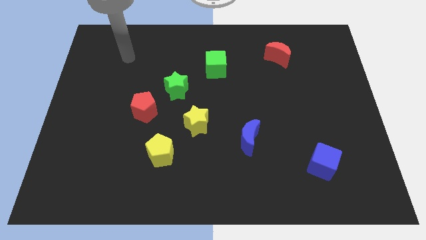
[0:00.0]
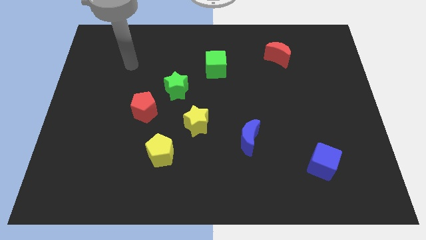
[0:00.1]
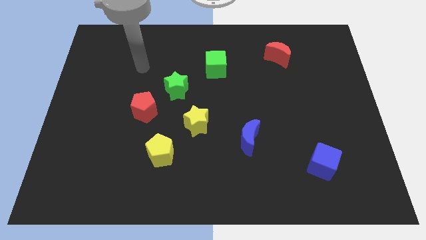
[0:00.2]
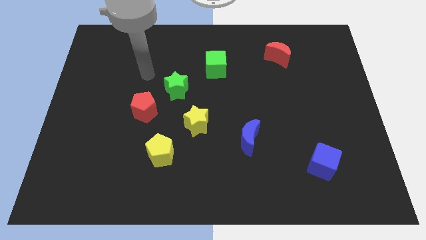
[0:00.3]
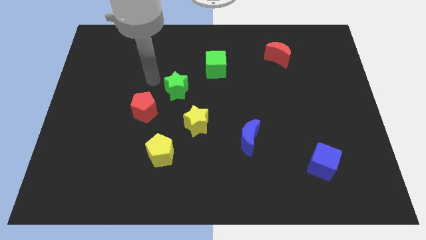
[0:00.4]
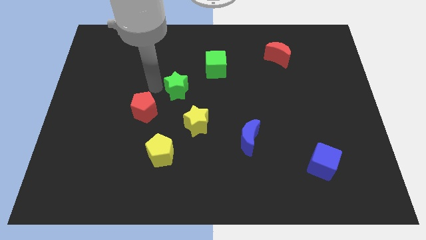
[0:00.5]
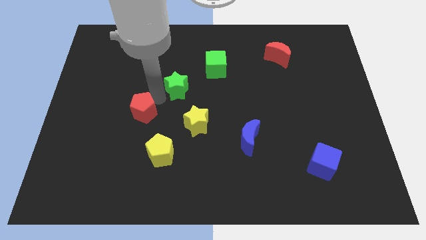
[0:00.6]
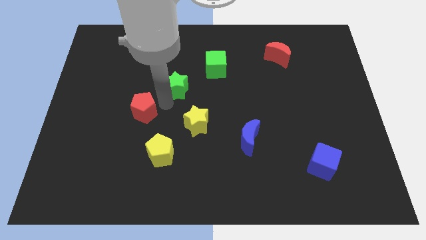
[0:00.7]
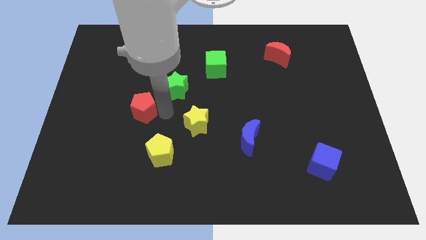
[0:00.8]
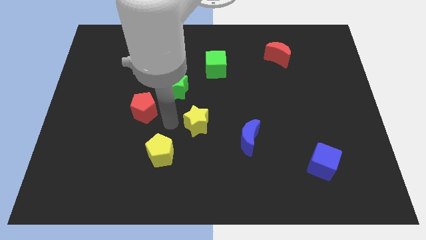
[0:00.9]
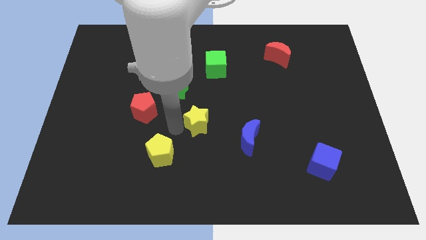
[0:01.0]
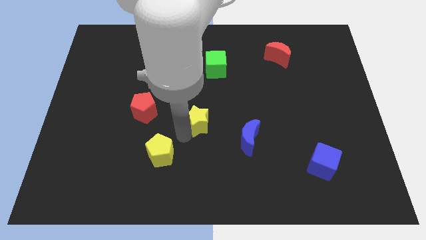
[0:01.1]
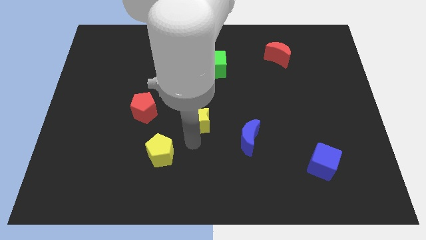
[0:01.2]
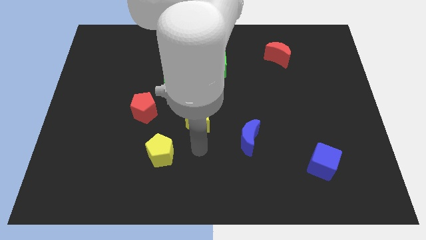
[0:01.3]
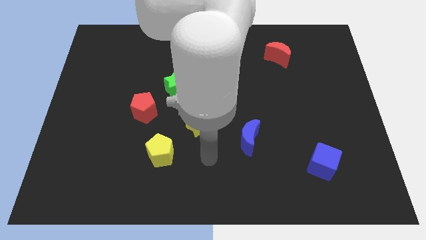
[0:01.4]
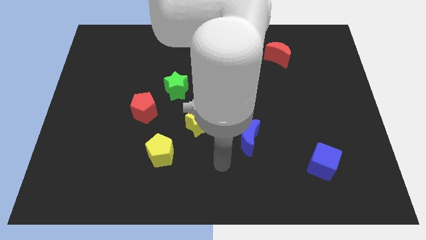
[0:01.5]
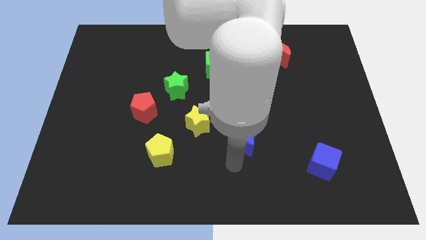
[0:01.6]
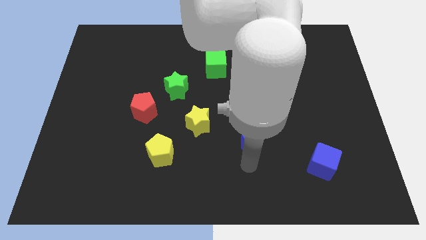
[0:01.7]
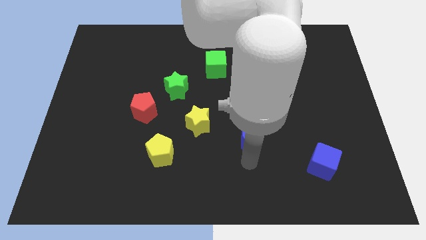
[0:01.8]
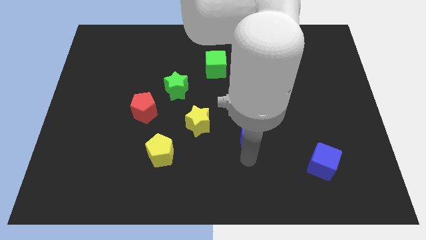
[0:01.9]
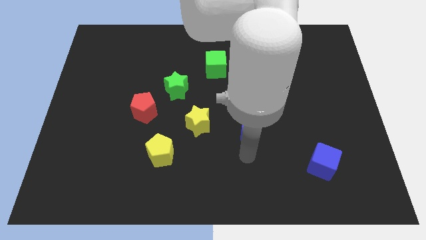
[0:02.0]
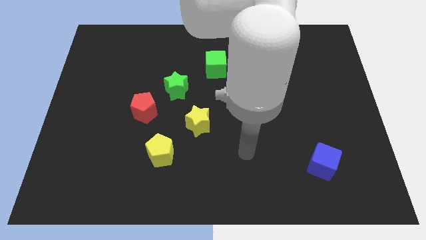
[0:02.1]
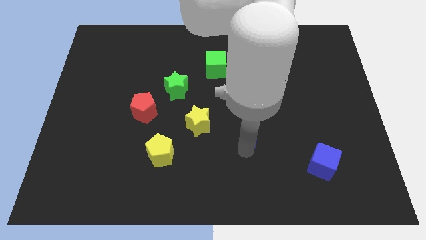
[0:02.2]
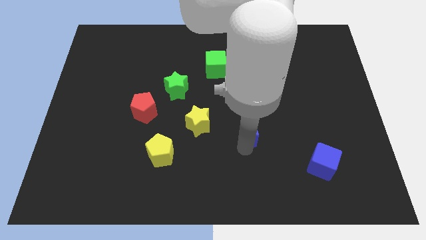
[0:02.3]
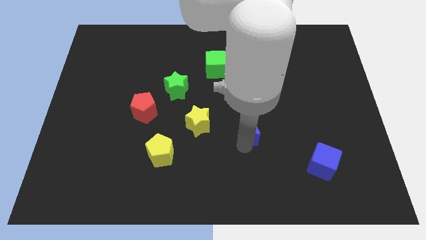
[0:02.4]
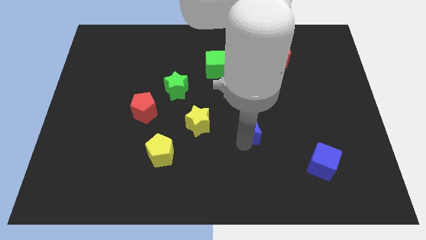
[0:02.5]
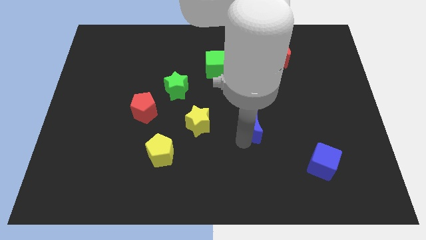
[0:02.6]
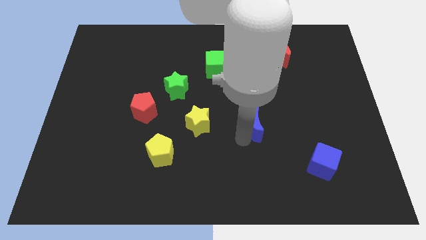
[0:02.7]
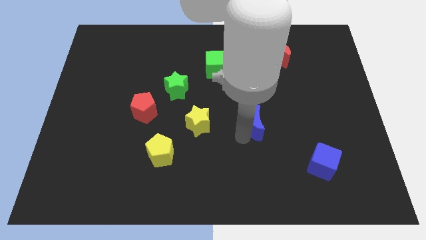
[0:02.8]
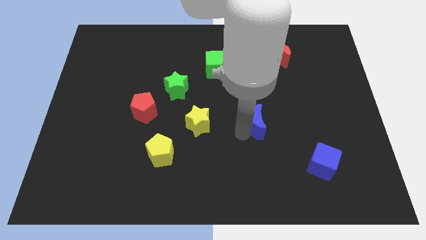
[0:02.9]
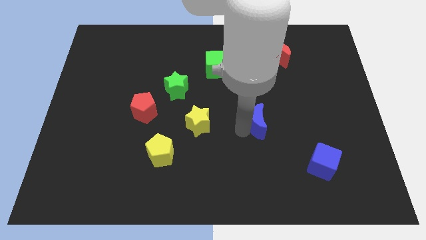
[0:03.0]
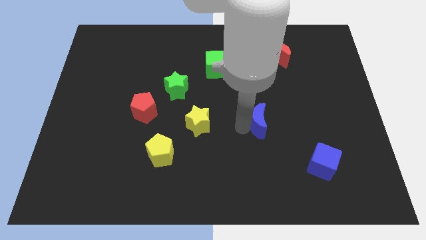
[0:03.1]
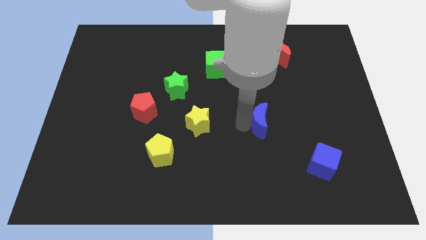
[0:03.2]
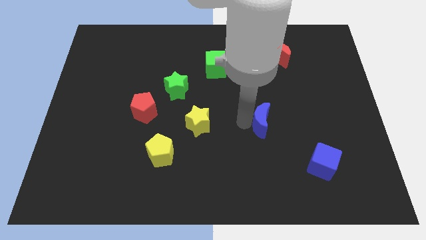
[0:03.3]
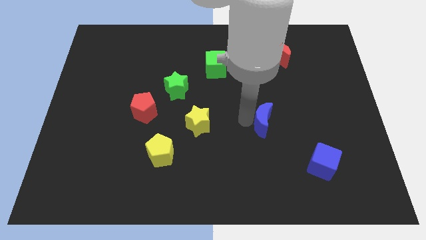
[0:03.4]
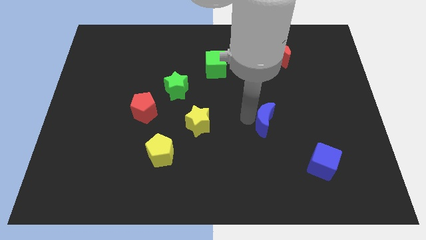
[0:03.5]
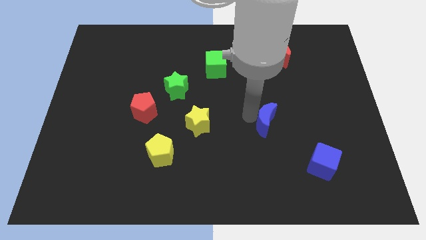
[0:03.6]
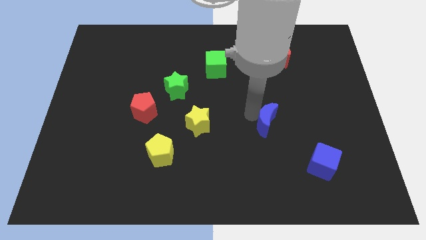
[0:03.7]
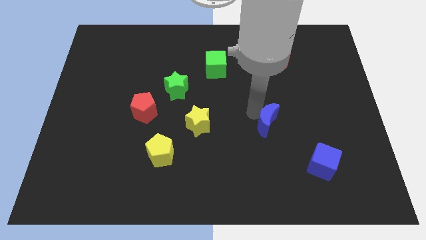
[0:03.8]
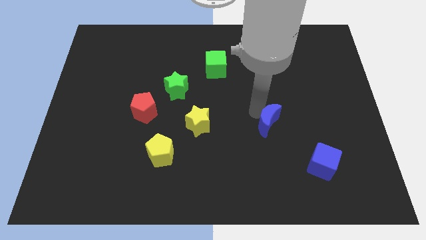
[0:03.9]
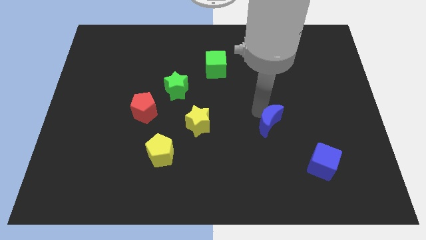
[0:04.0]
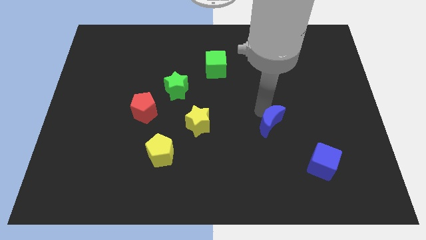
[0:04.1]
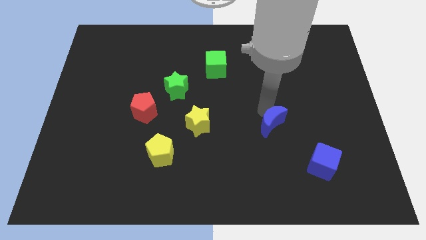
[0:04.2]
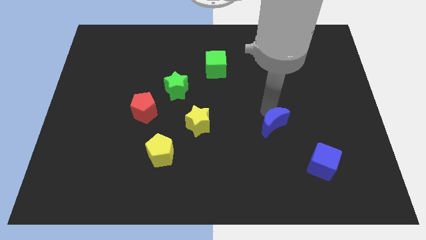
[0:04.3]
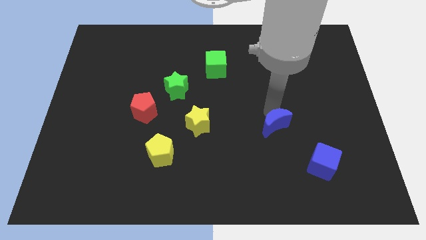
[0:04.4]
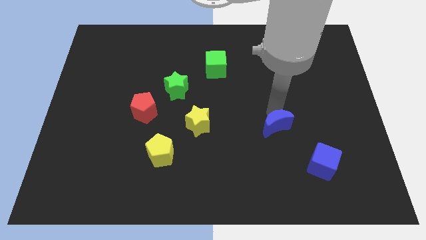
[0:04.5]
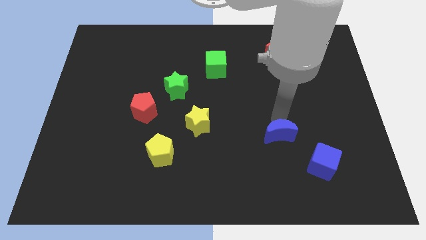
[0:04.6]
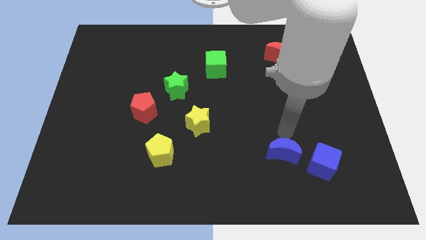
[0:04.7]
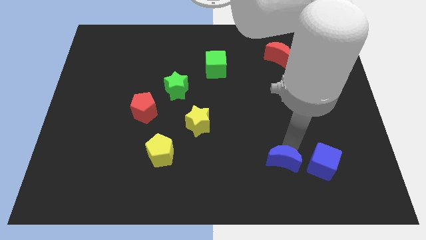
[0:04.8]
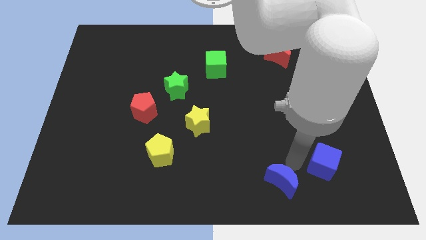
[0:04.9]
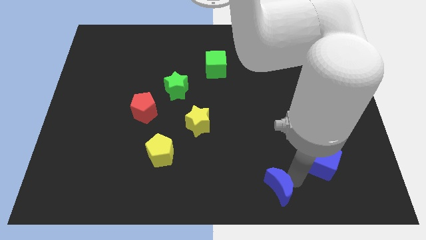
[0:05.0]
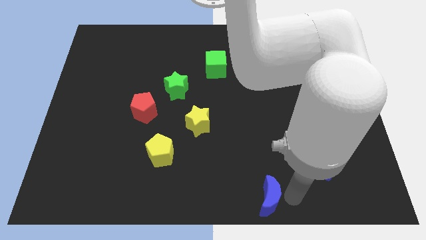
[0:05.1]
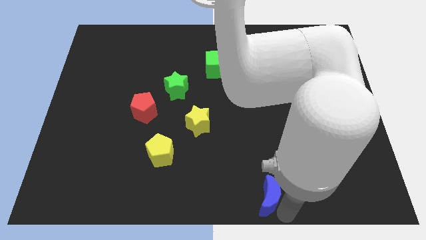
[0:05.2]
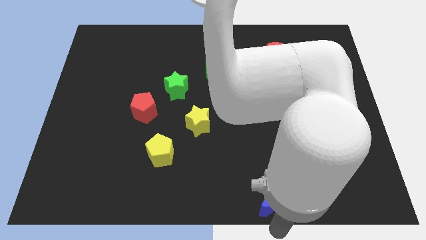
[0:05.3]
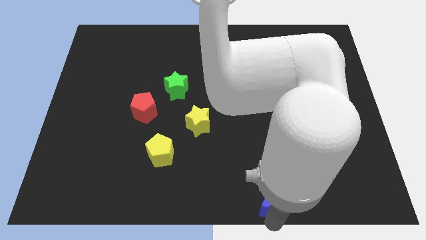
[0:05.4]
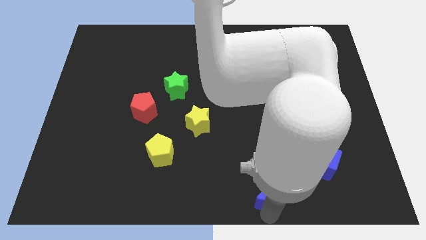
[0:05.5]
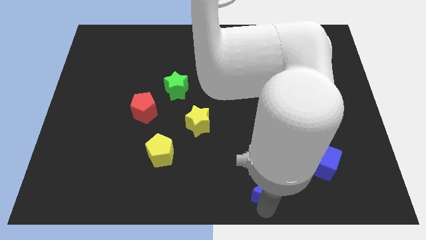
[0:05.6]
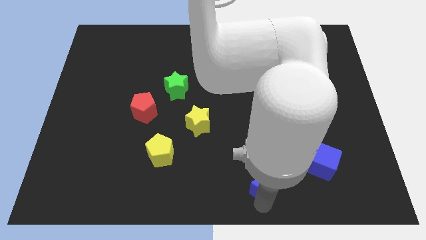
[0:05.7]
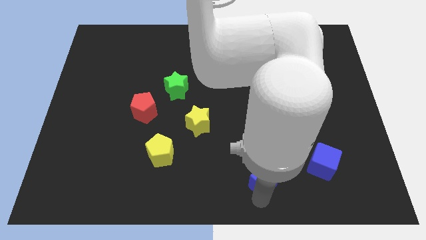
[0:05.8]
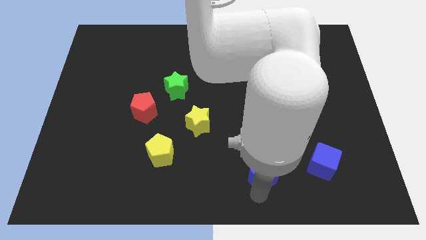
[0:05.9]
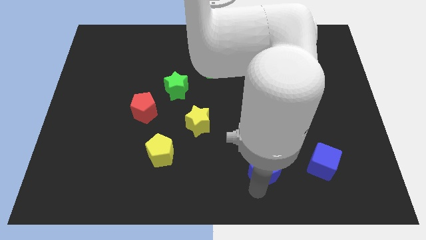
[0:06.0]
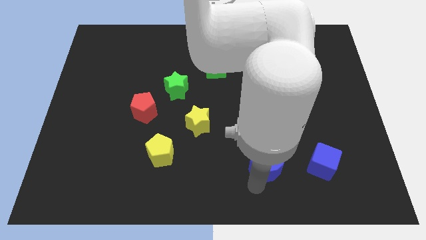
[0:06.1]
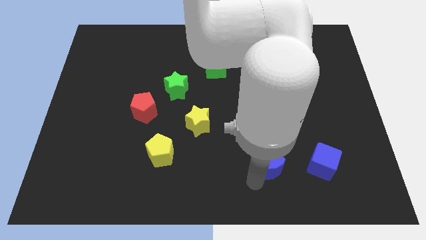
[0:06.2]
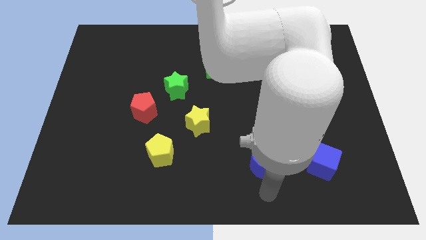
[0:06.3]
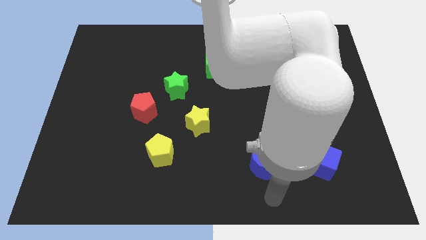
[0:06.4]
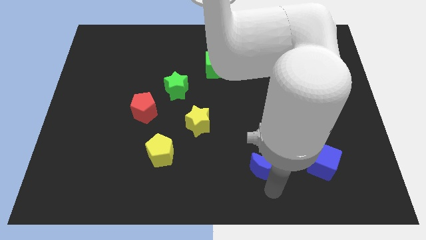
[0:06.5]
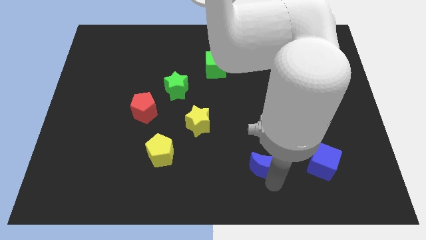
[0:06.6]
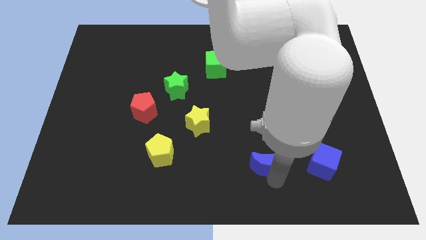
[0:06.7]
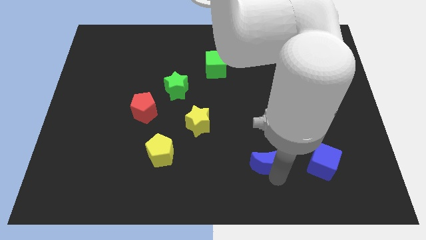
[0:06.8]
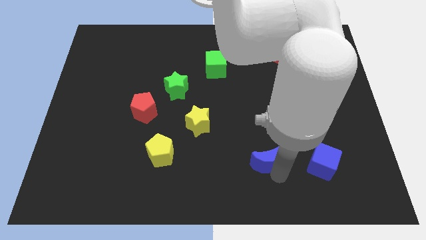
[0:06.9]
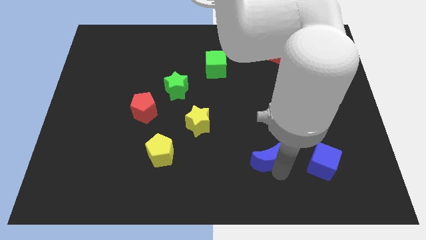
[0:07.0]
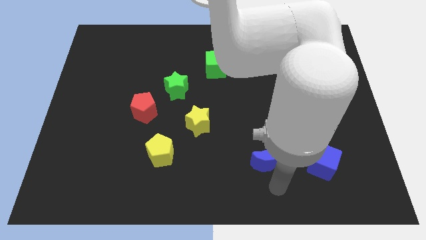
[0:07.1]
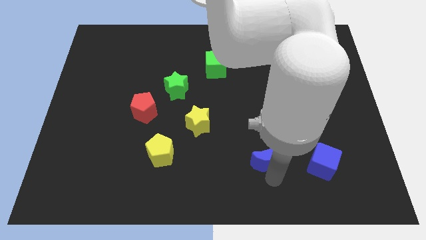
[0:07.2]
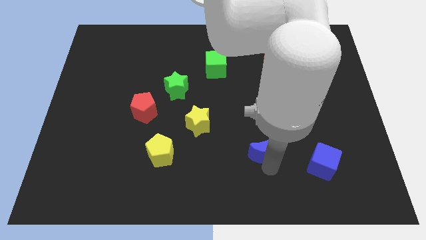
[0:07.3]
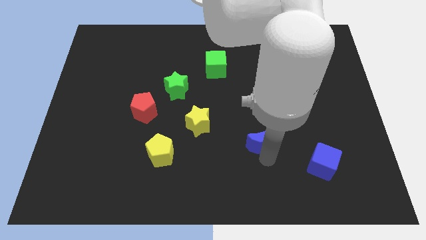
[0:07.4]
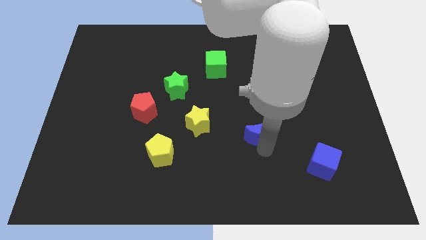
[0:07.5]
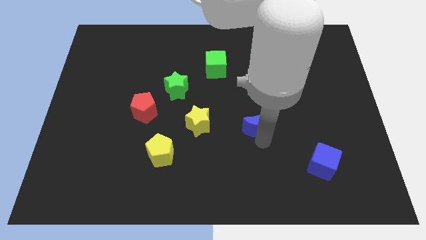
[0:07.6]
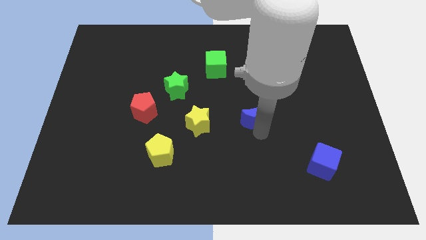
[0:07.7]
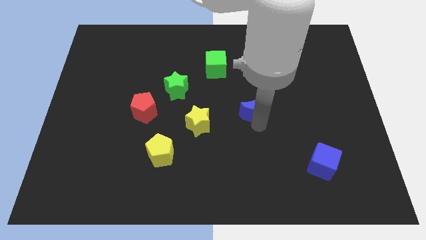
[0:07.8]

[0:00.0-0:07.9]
push the blue moon slightly upwards
